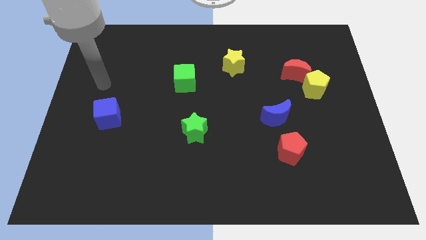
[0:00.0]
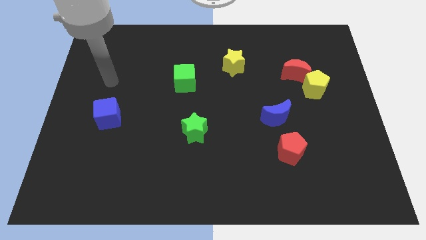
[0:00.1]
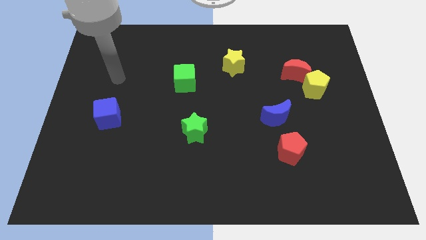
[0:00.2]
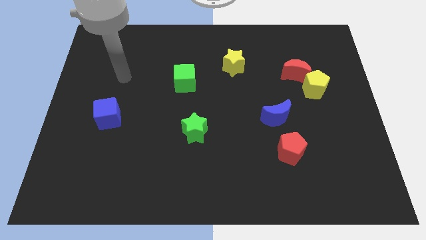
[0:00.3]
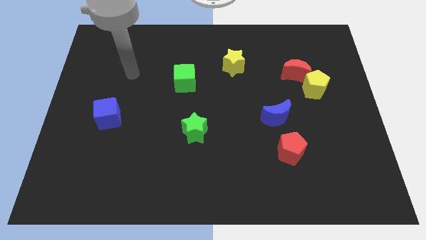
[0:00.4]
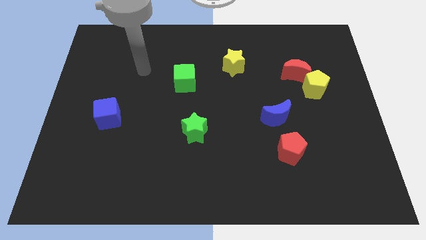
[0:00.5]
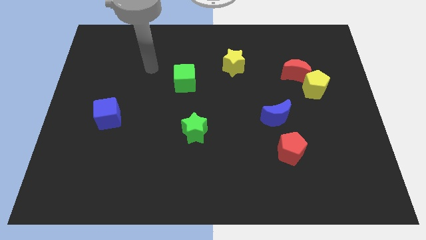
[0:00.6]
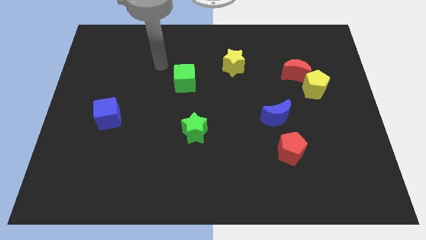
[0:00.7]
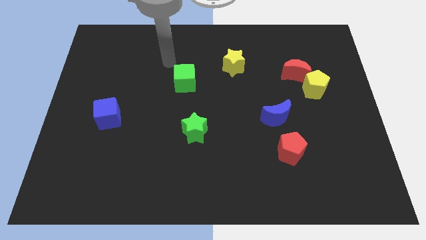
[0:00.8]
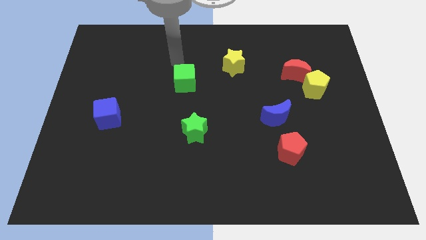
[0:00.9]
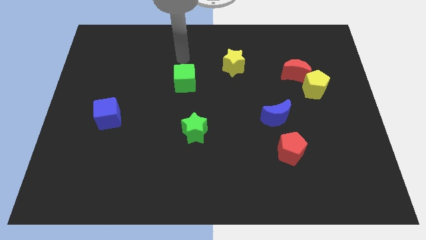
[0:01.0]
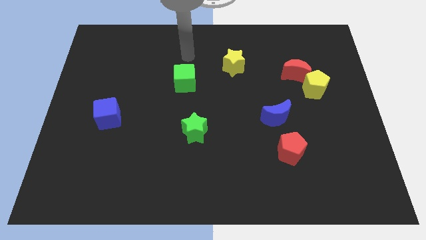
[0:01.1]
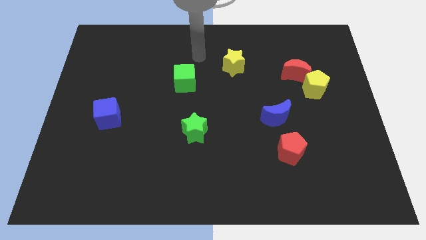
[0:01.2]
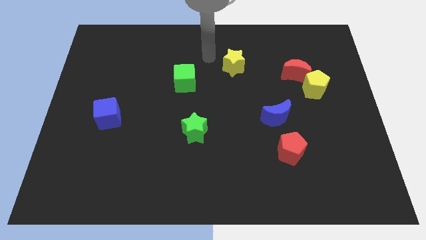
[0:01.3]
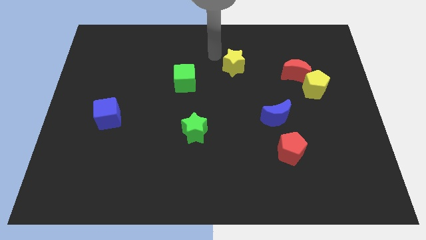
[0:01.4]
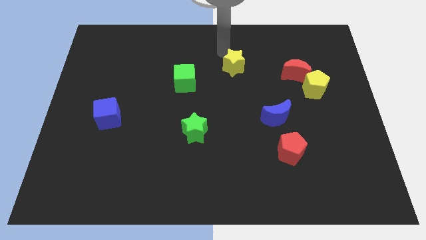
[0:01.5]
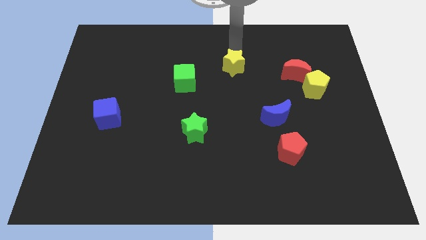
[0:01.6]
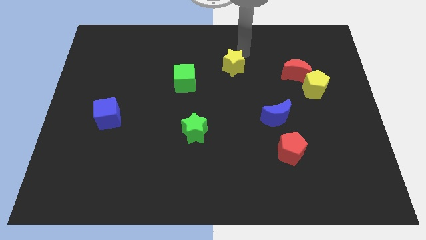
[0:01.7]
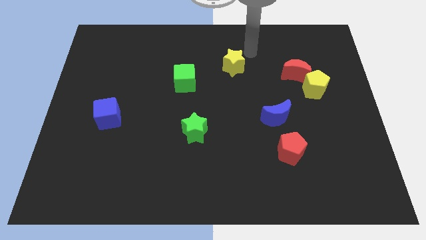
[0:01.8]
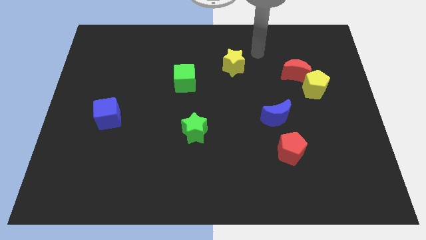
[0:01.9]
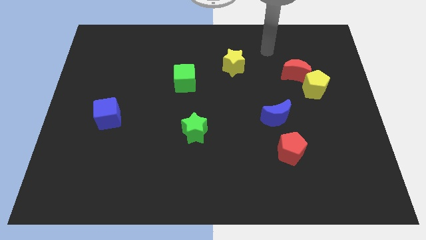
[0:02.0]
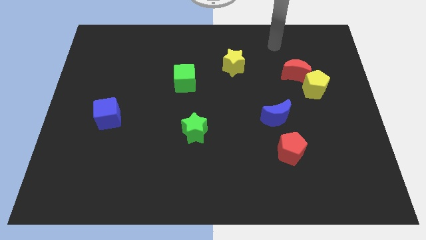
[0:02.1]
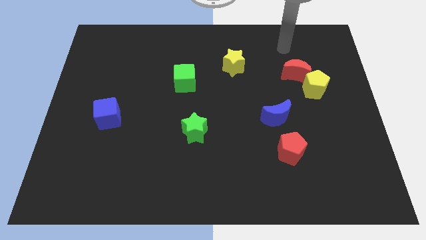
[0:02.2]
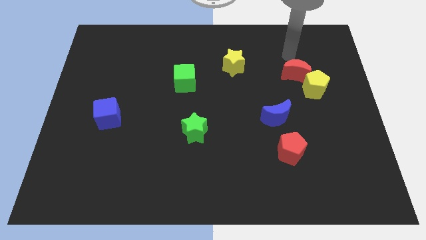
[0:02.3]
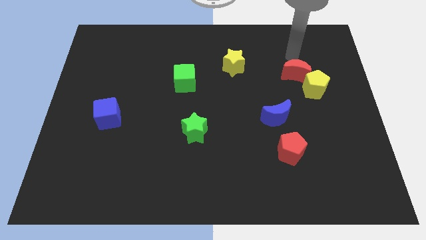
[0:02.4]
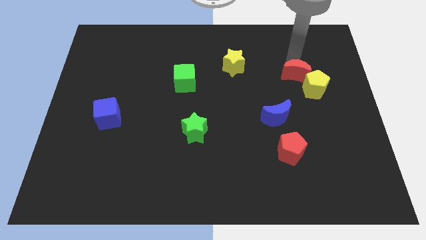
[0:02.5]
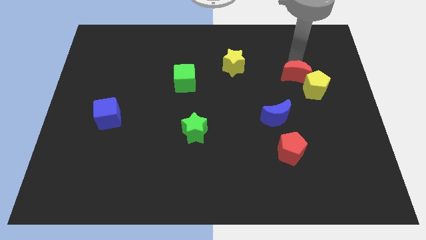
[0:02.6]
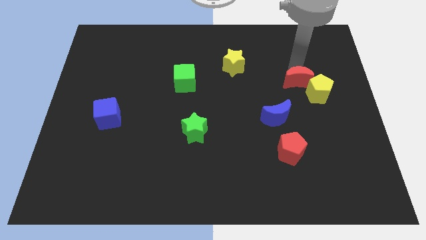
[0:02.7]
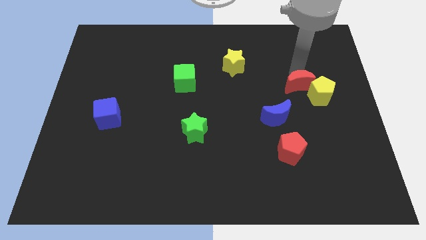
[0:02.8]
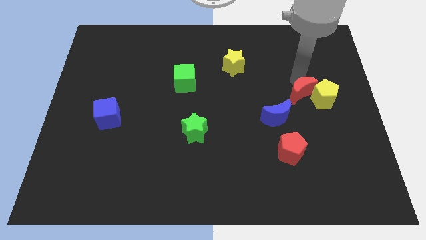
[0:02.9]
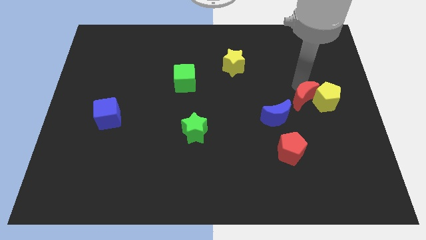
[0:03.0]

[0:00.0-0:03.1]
move the red moon a bit downwards

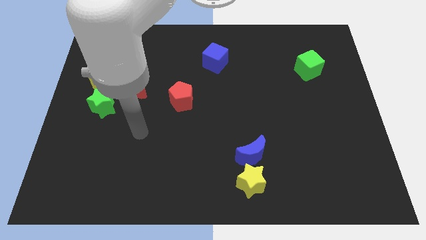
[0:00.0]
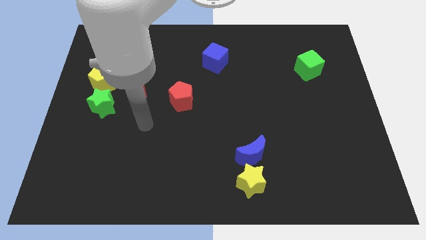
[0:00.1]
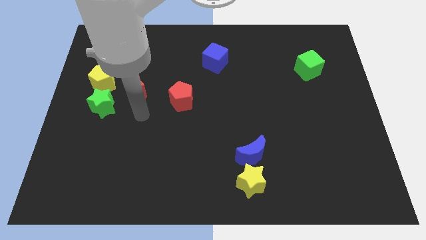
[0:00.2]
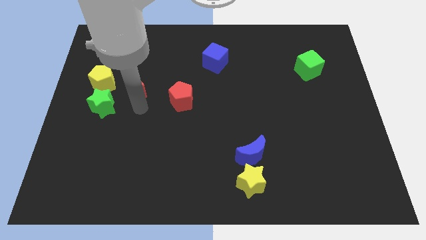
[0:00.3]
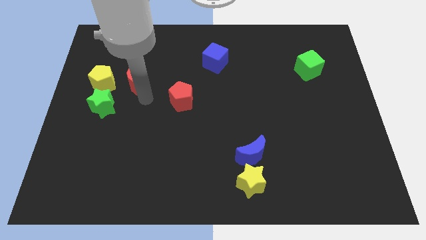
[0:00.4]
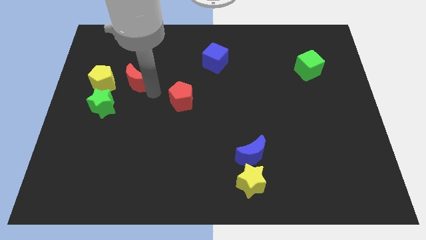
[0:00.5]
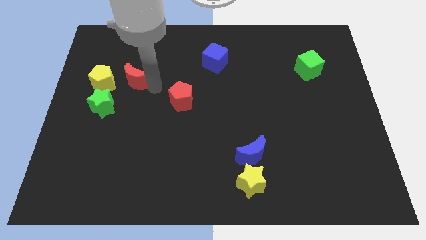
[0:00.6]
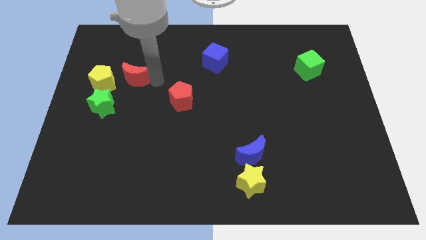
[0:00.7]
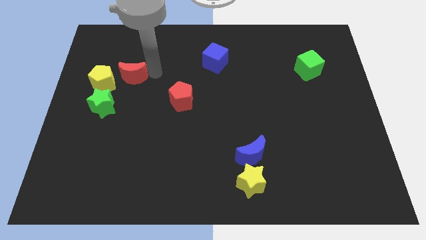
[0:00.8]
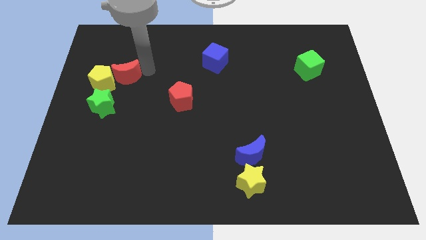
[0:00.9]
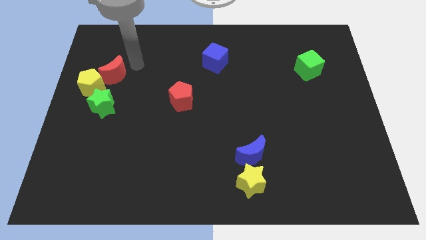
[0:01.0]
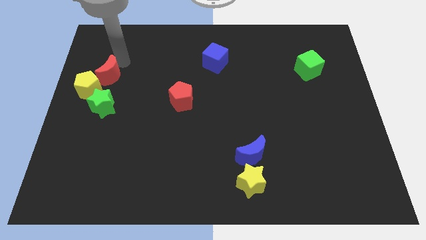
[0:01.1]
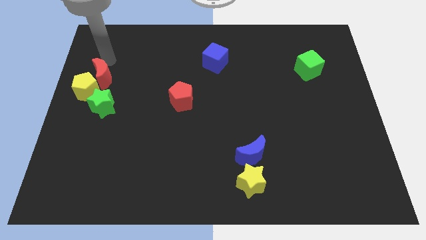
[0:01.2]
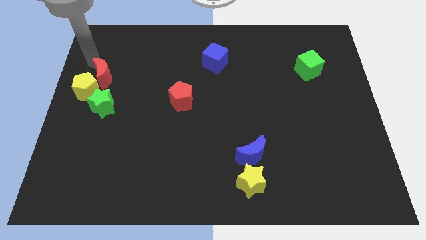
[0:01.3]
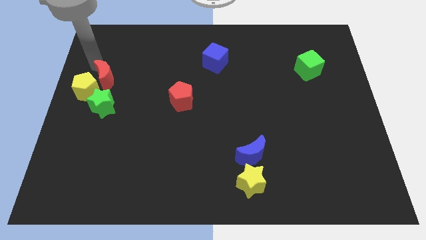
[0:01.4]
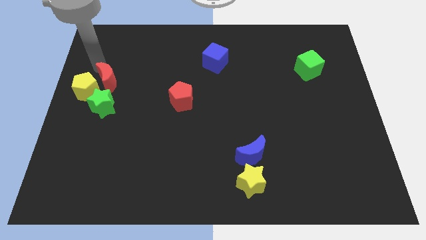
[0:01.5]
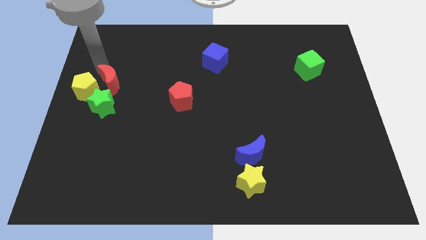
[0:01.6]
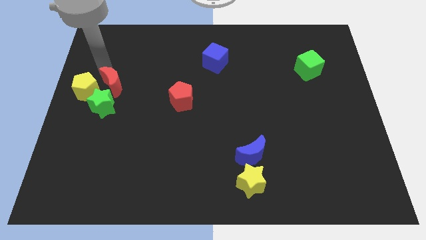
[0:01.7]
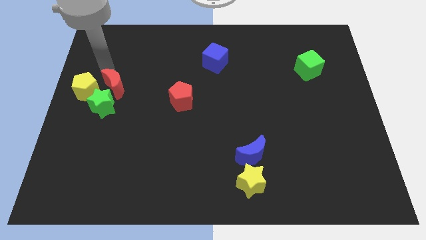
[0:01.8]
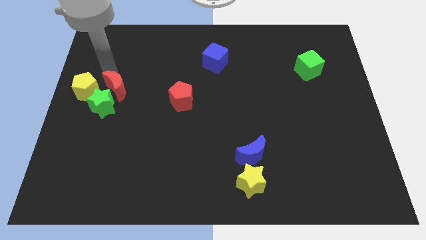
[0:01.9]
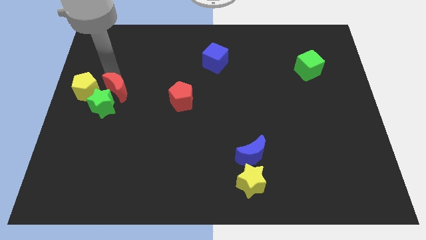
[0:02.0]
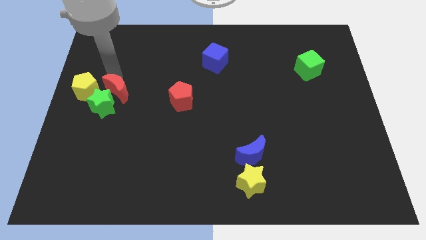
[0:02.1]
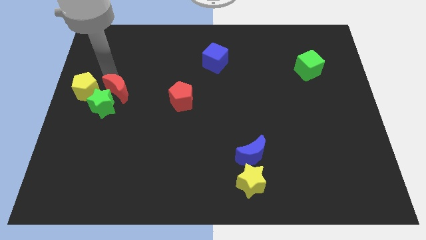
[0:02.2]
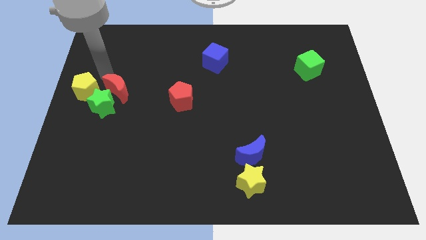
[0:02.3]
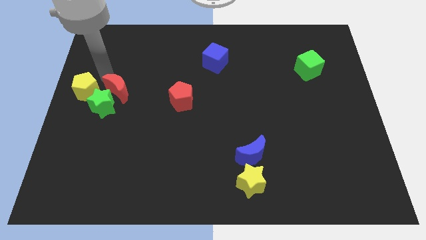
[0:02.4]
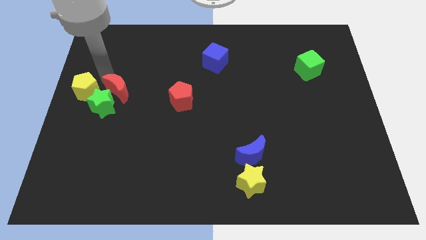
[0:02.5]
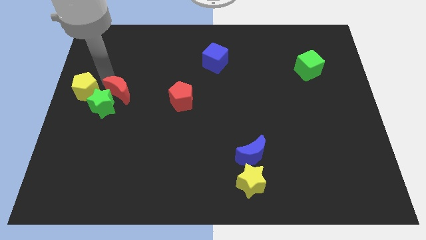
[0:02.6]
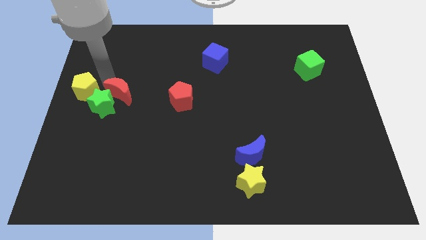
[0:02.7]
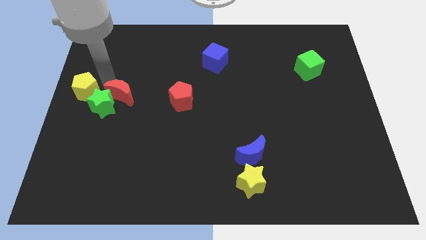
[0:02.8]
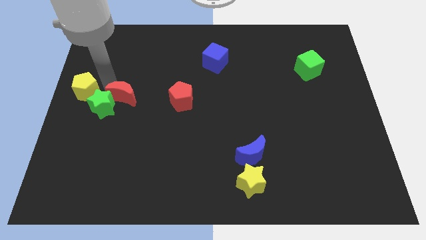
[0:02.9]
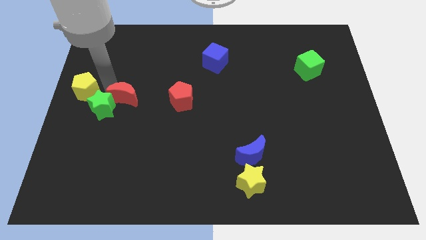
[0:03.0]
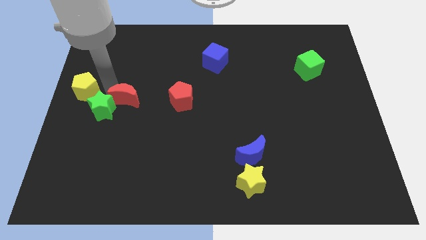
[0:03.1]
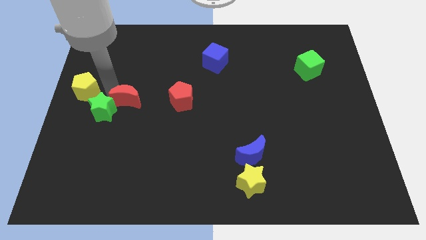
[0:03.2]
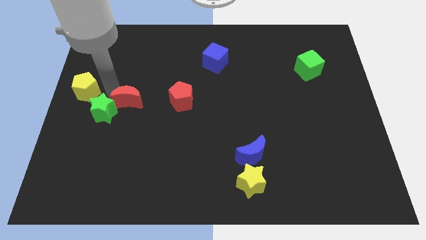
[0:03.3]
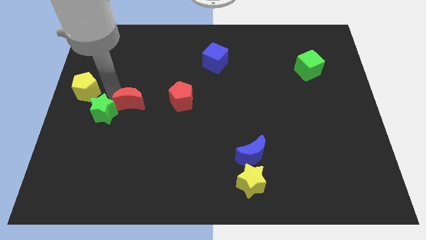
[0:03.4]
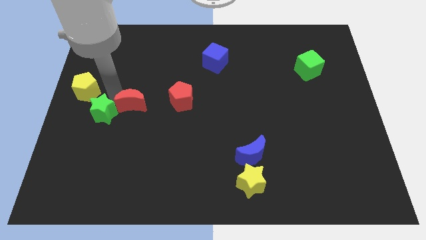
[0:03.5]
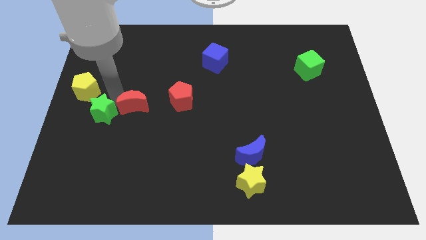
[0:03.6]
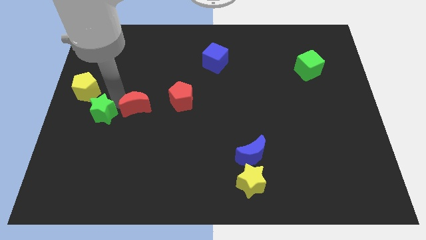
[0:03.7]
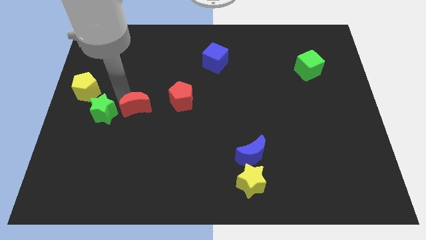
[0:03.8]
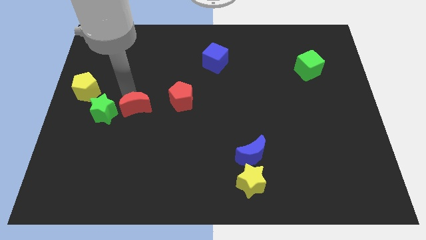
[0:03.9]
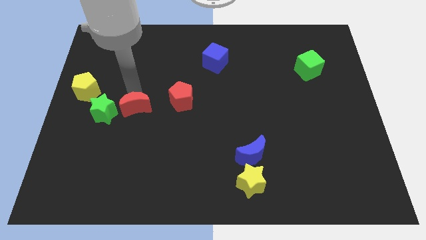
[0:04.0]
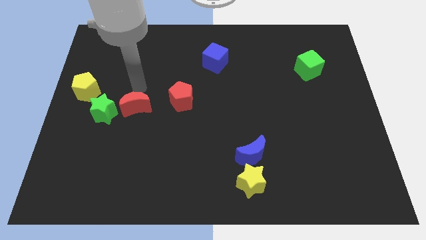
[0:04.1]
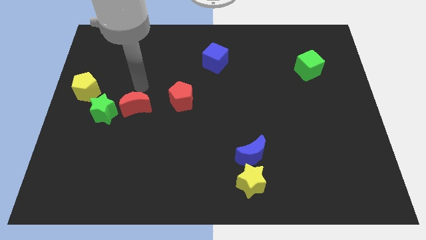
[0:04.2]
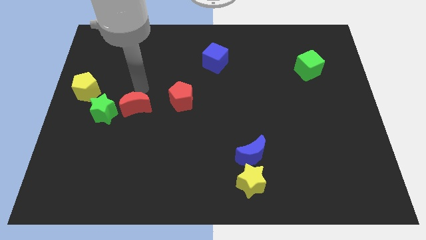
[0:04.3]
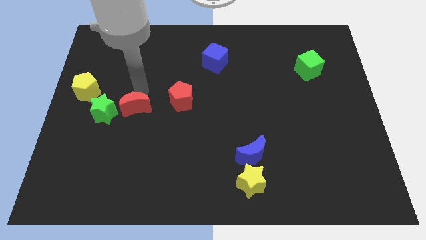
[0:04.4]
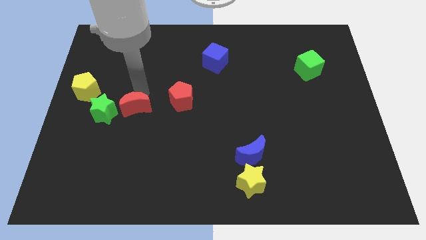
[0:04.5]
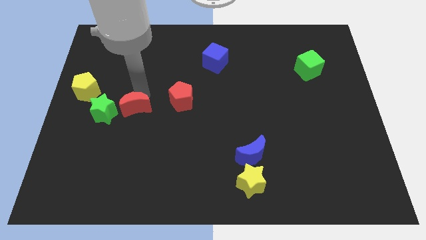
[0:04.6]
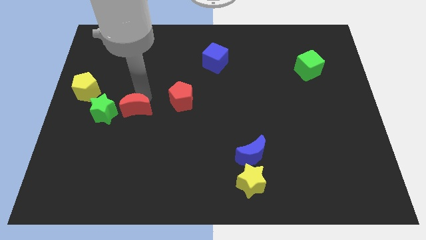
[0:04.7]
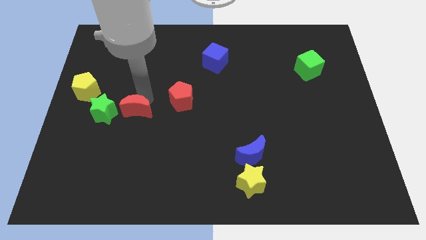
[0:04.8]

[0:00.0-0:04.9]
slightly slide the red moon downwards

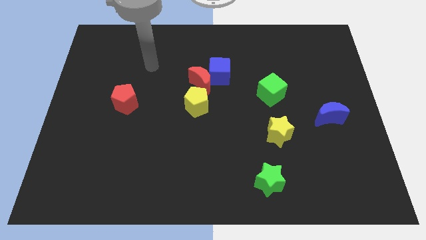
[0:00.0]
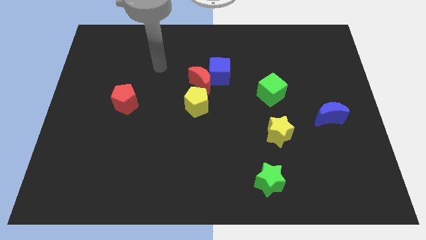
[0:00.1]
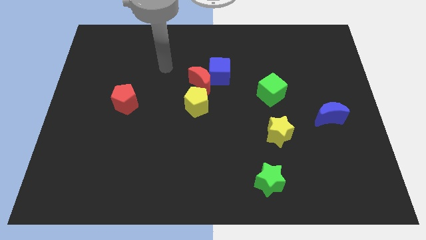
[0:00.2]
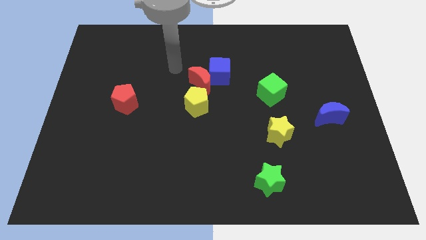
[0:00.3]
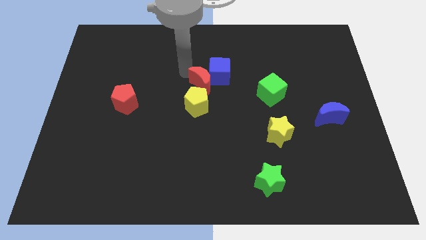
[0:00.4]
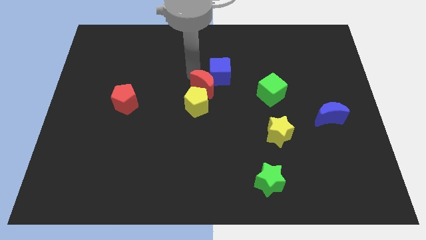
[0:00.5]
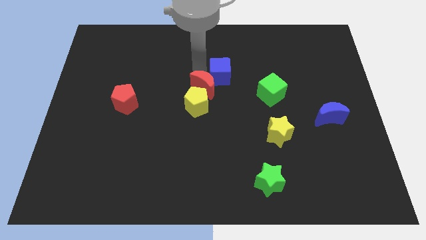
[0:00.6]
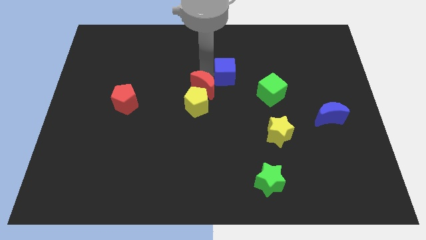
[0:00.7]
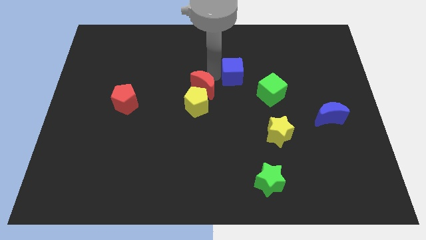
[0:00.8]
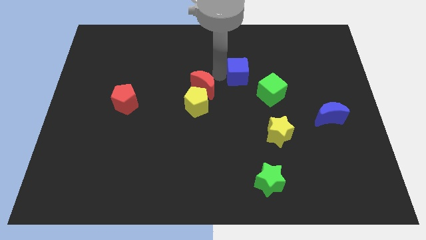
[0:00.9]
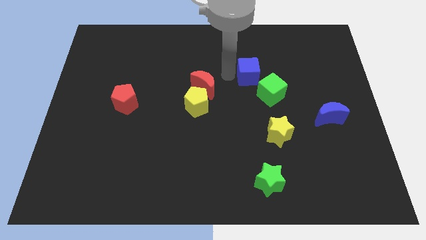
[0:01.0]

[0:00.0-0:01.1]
slide the blue cube to the right slightly
